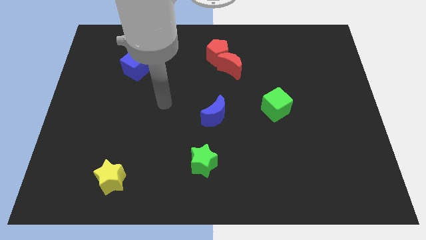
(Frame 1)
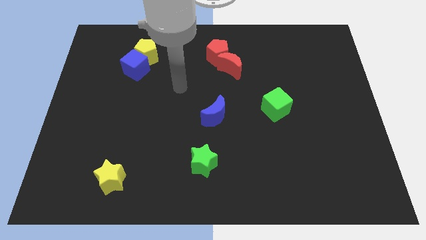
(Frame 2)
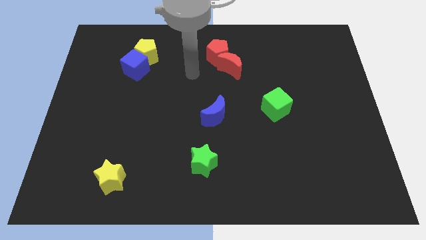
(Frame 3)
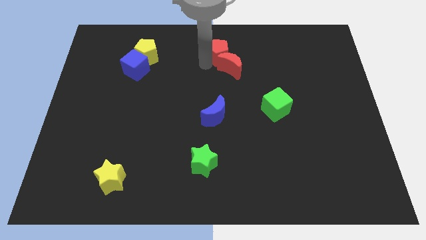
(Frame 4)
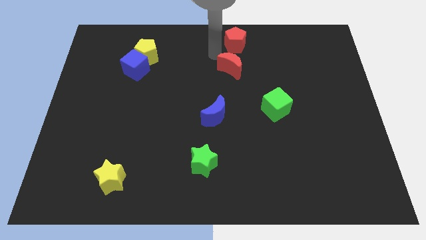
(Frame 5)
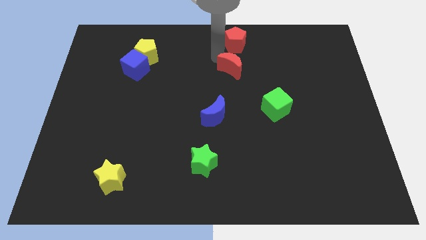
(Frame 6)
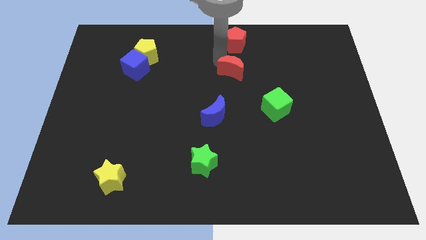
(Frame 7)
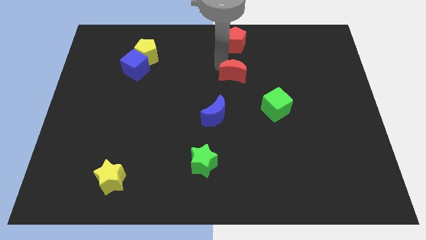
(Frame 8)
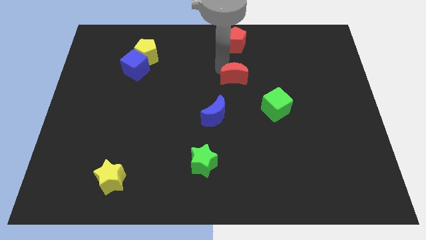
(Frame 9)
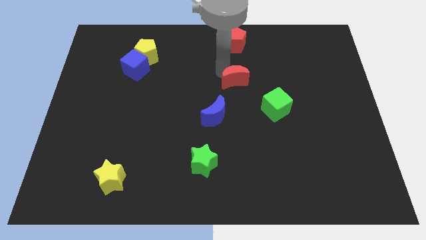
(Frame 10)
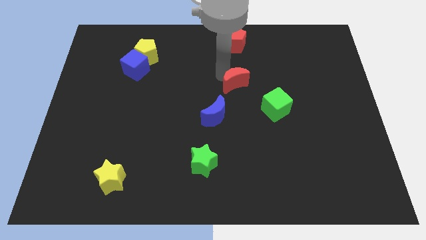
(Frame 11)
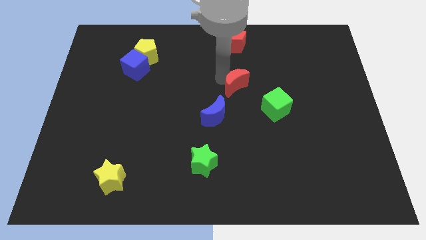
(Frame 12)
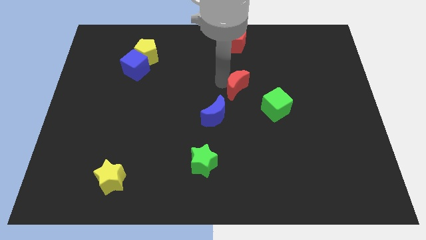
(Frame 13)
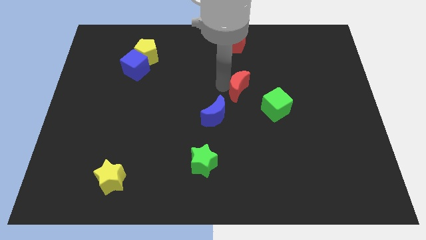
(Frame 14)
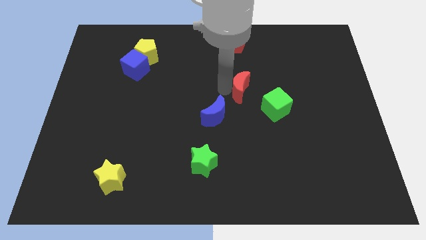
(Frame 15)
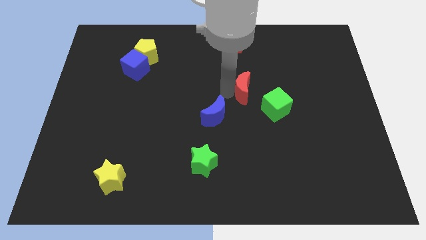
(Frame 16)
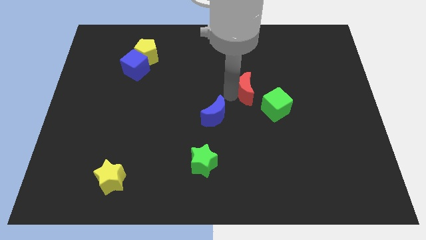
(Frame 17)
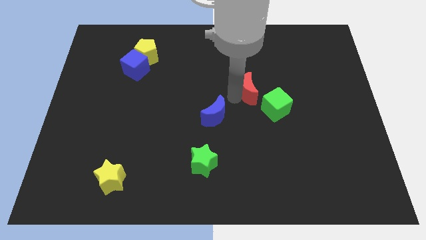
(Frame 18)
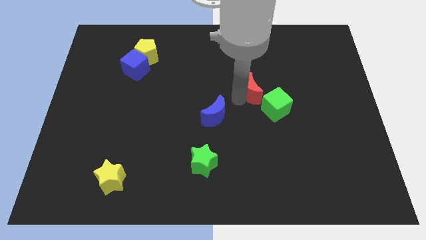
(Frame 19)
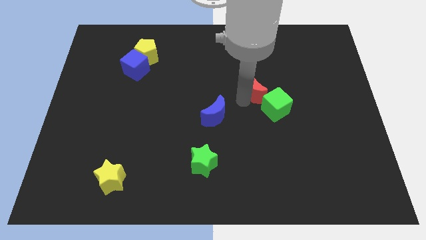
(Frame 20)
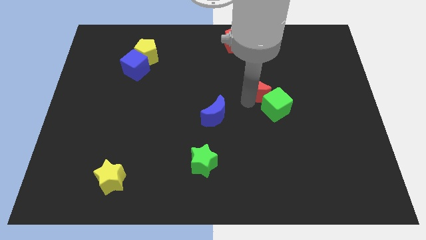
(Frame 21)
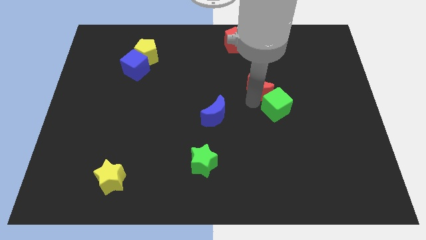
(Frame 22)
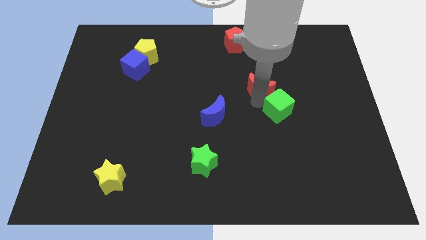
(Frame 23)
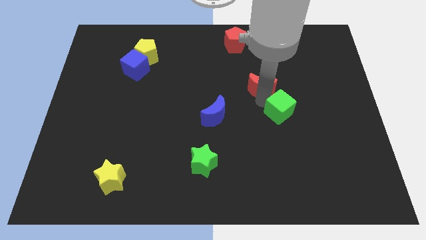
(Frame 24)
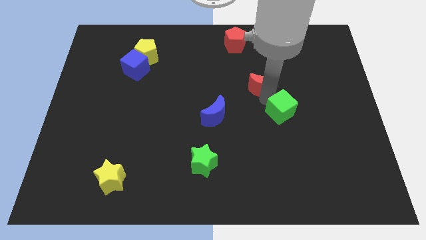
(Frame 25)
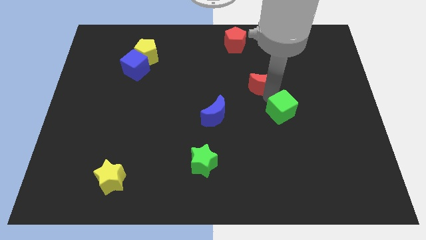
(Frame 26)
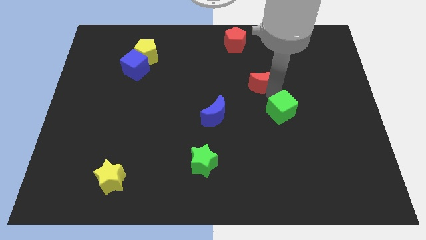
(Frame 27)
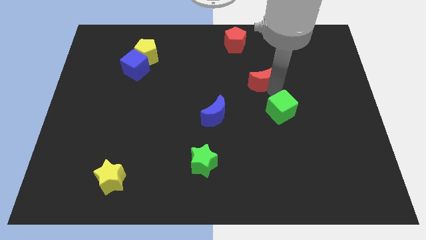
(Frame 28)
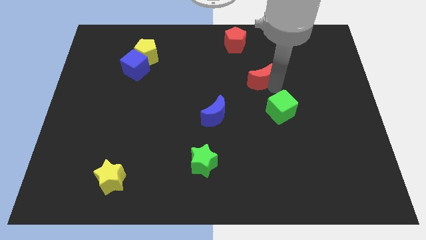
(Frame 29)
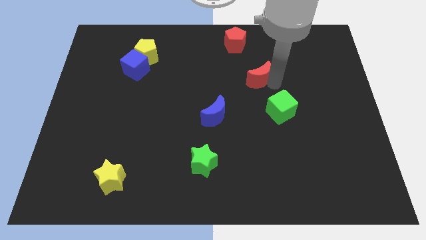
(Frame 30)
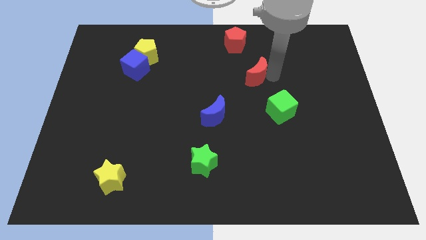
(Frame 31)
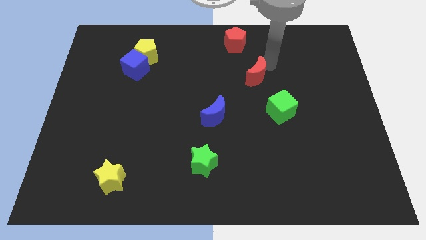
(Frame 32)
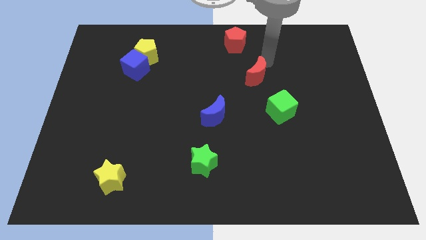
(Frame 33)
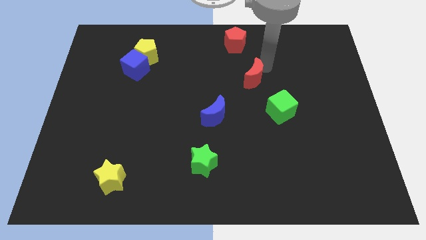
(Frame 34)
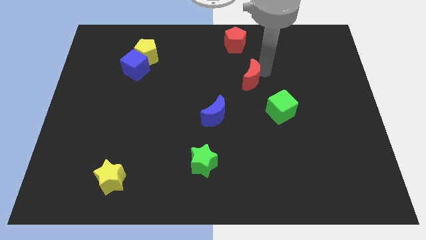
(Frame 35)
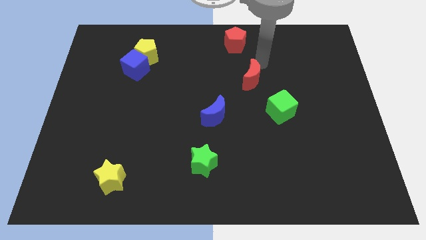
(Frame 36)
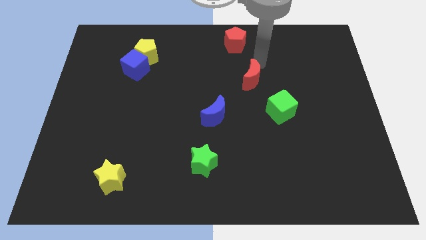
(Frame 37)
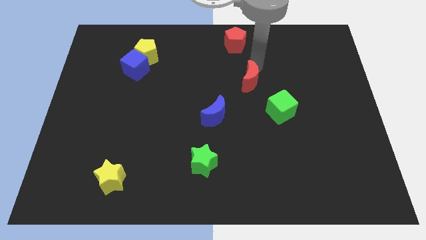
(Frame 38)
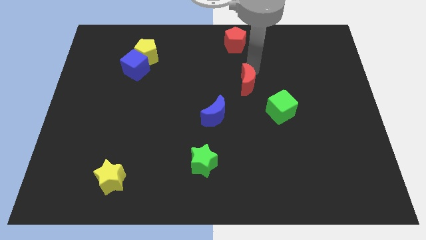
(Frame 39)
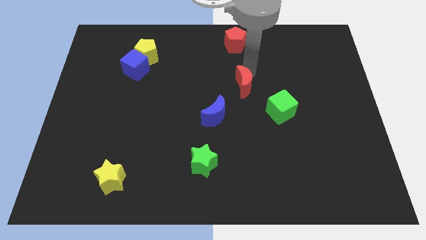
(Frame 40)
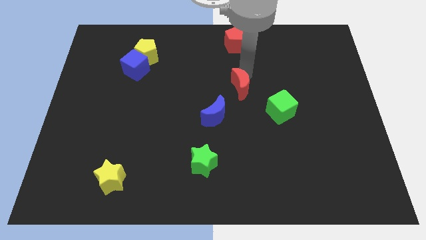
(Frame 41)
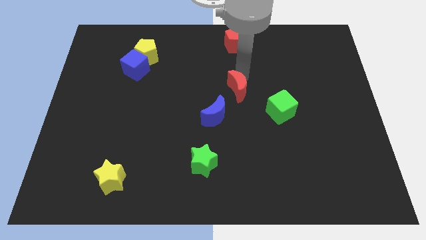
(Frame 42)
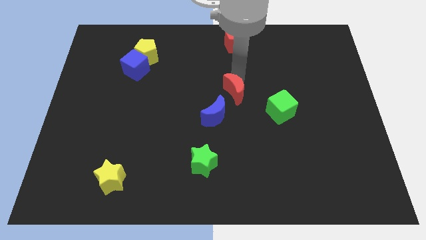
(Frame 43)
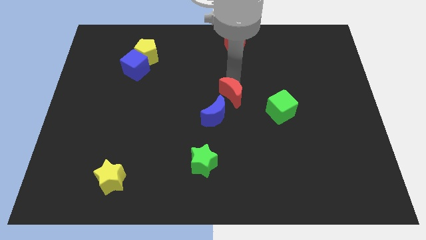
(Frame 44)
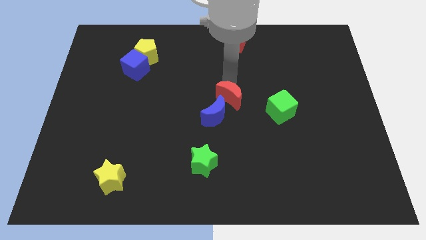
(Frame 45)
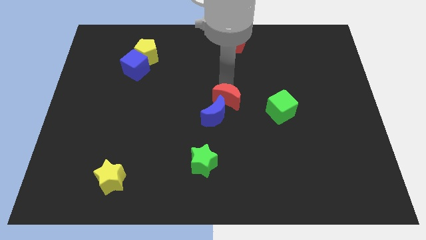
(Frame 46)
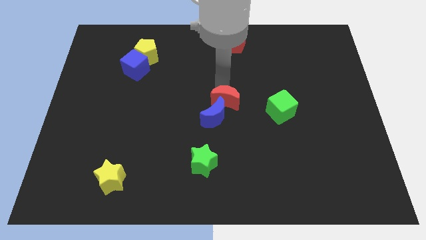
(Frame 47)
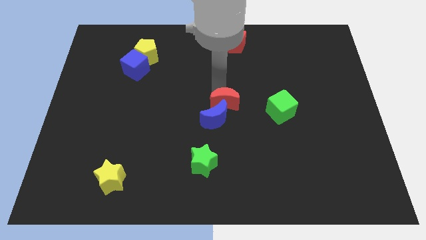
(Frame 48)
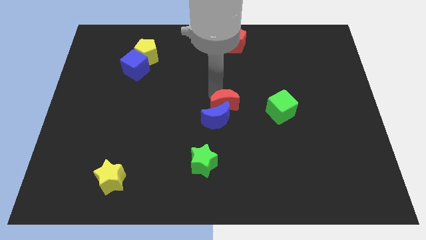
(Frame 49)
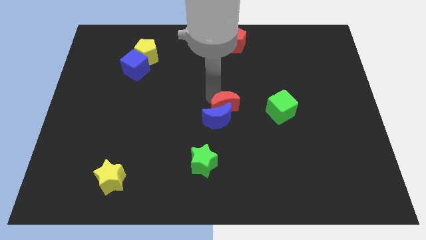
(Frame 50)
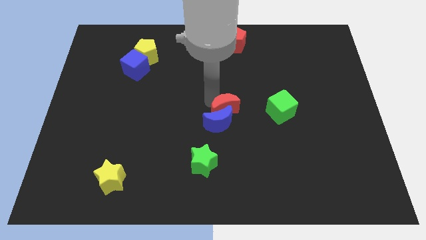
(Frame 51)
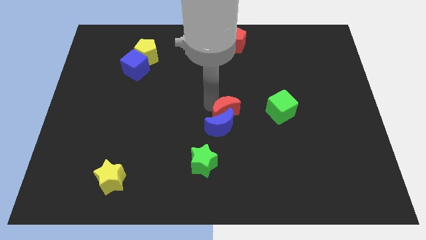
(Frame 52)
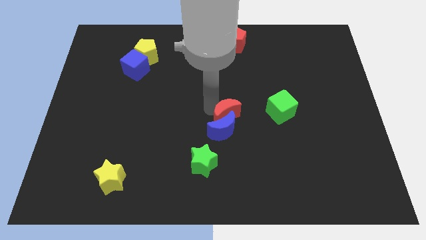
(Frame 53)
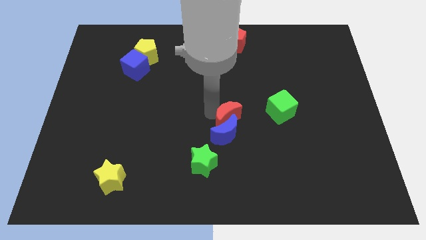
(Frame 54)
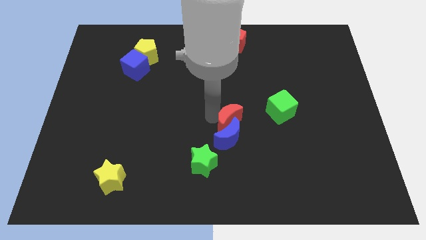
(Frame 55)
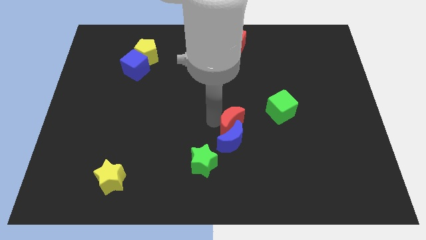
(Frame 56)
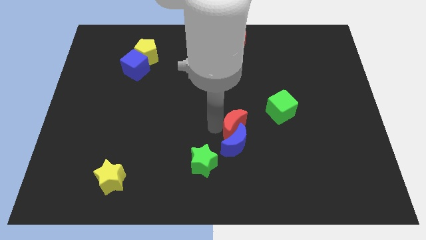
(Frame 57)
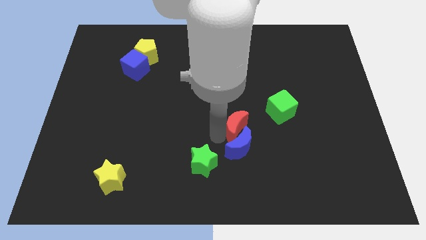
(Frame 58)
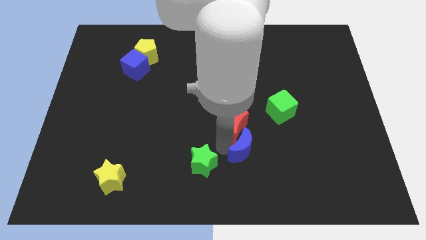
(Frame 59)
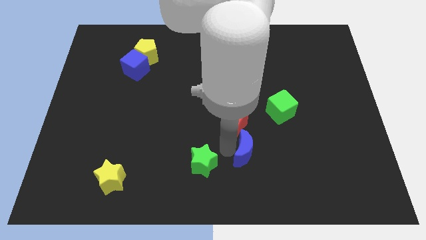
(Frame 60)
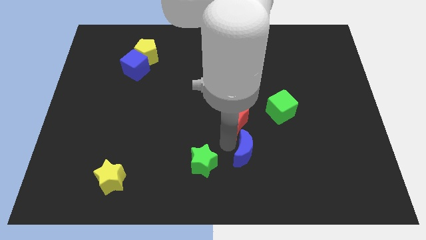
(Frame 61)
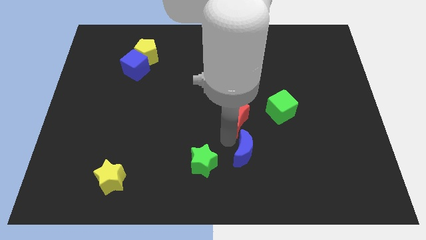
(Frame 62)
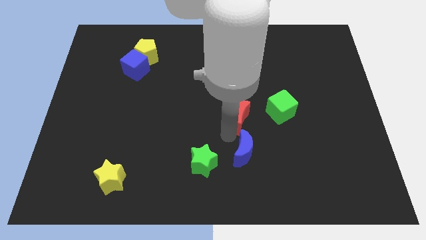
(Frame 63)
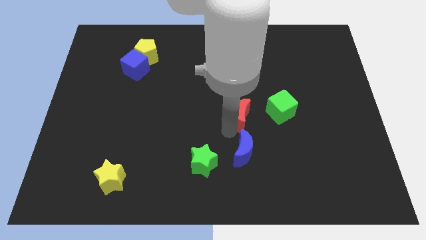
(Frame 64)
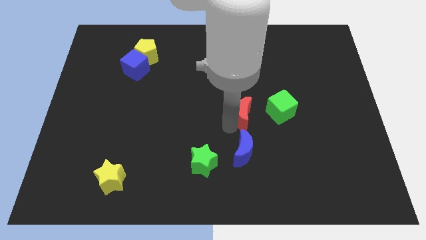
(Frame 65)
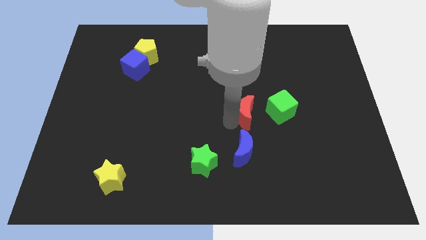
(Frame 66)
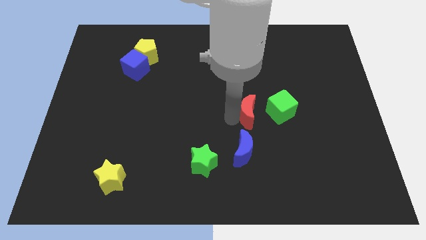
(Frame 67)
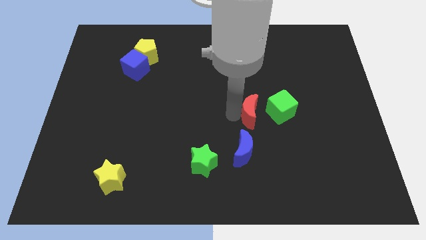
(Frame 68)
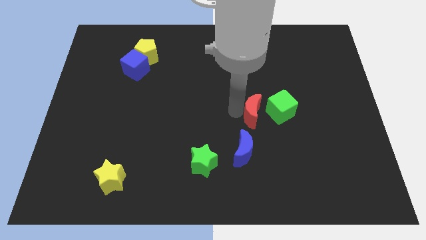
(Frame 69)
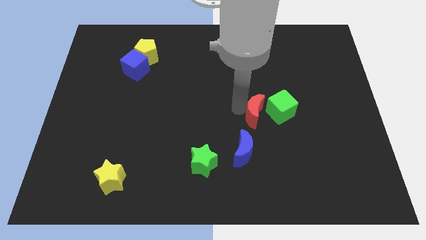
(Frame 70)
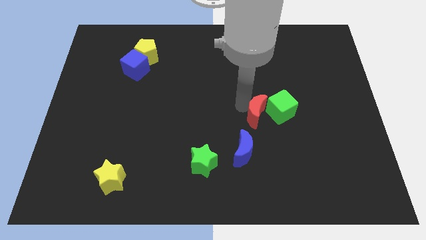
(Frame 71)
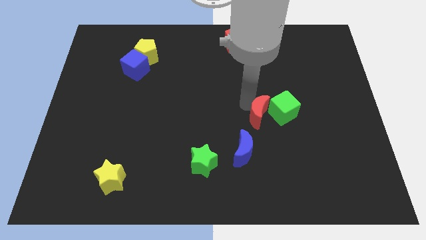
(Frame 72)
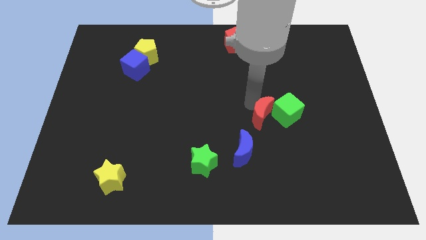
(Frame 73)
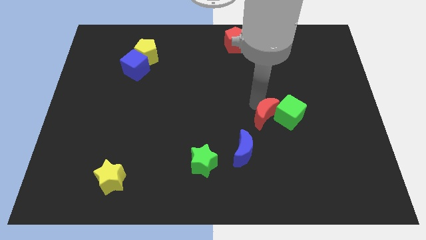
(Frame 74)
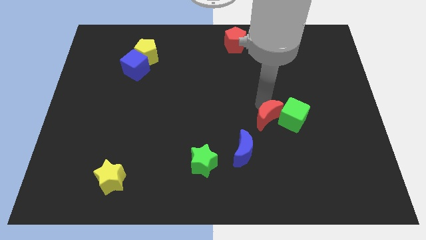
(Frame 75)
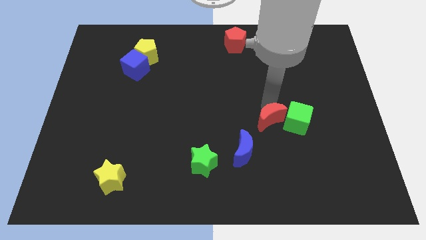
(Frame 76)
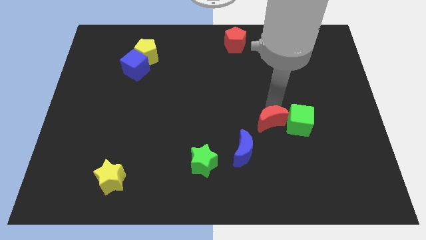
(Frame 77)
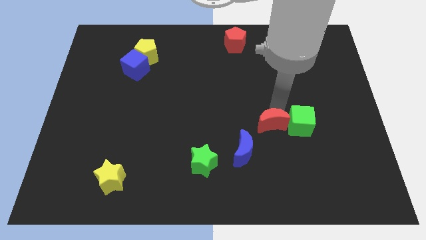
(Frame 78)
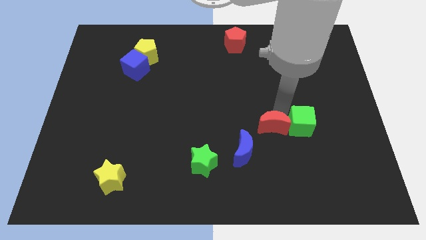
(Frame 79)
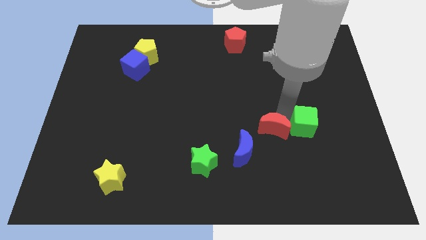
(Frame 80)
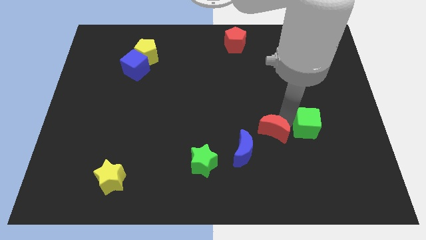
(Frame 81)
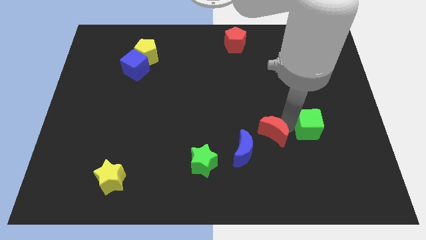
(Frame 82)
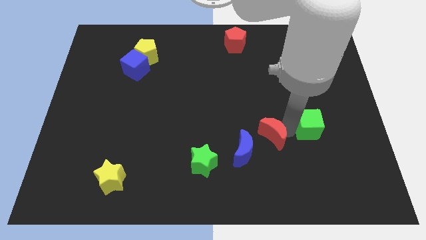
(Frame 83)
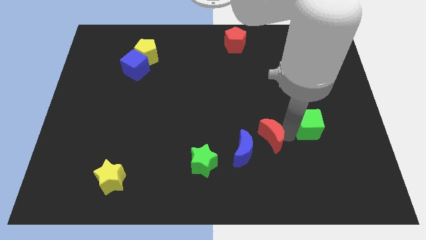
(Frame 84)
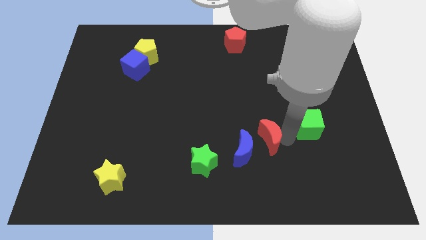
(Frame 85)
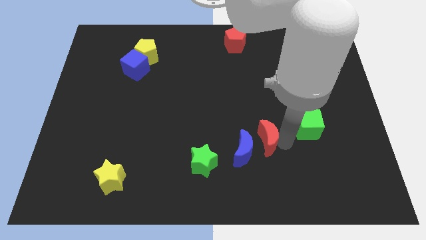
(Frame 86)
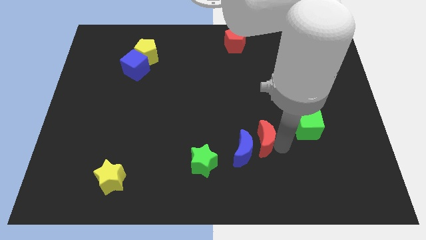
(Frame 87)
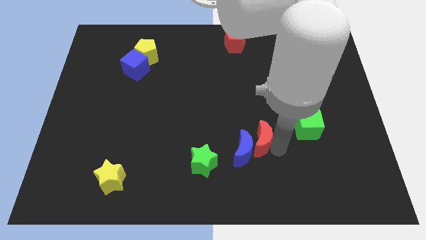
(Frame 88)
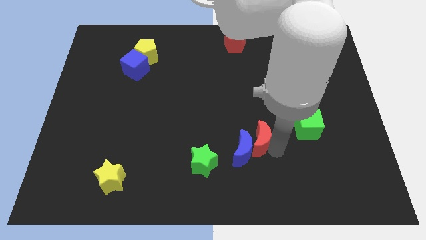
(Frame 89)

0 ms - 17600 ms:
slide the red moon just right of the green star
